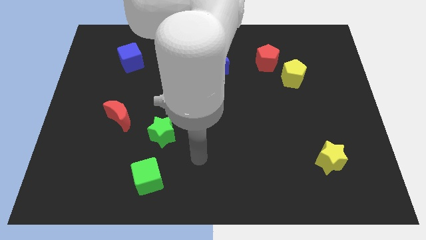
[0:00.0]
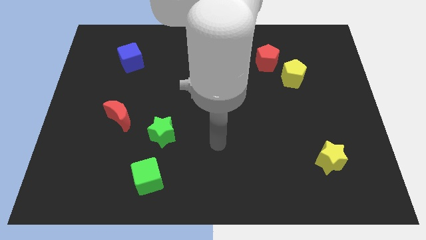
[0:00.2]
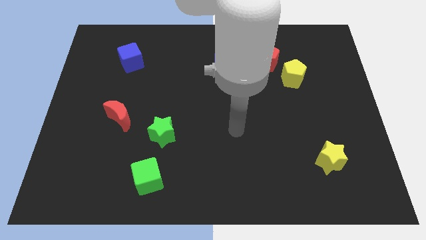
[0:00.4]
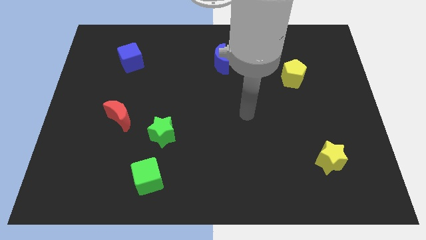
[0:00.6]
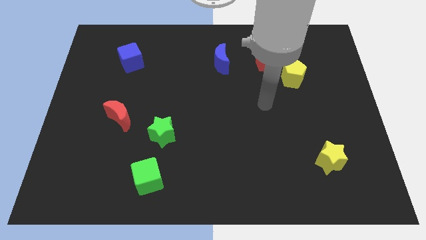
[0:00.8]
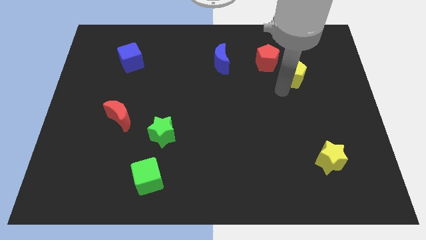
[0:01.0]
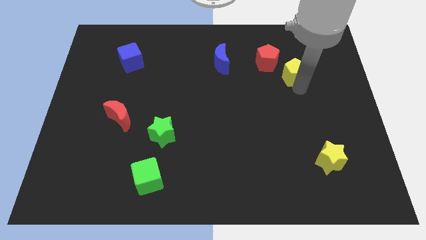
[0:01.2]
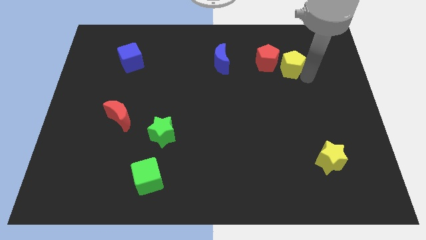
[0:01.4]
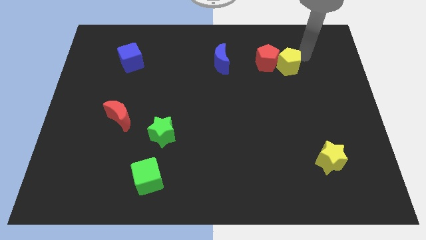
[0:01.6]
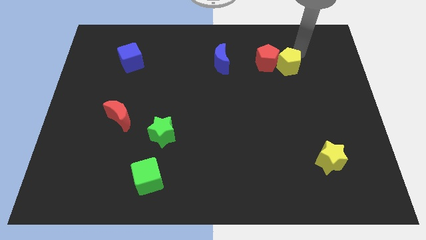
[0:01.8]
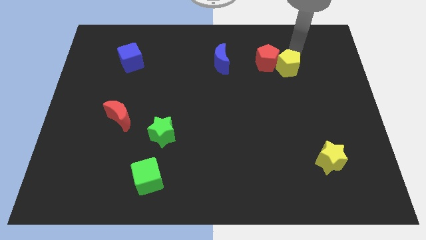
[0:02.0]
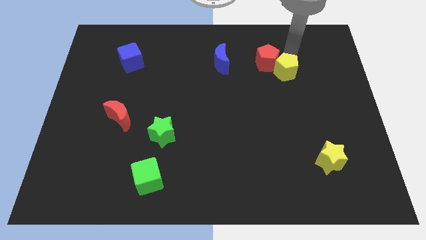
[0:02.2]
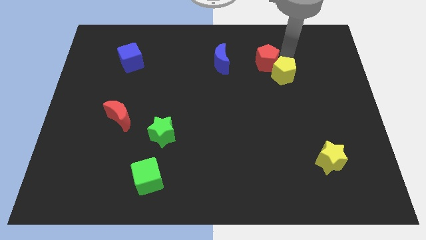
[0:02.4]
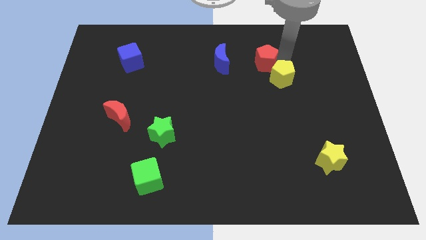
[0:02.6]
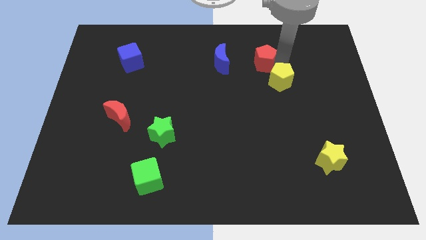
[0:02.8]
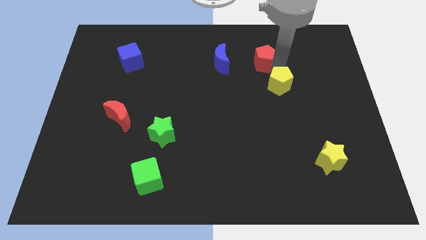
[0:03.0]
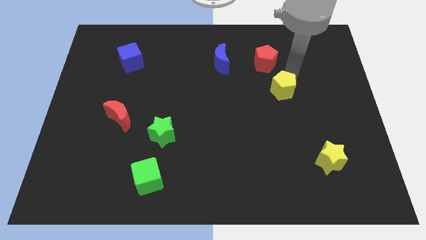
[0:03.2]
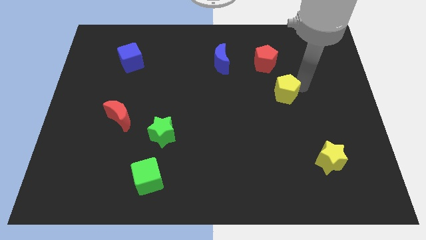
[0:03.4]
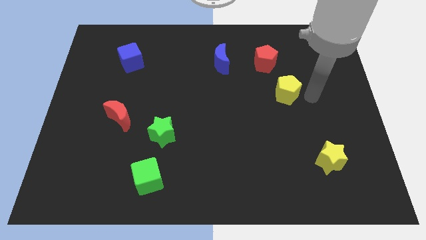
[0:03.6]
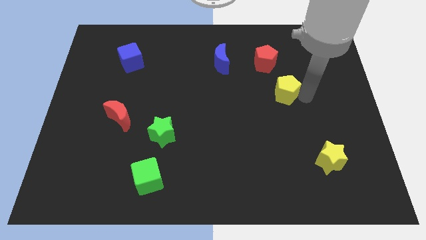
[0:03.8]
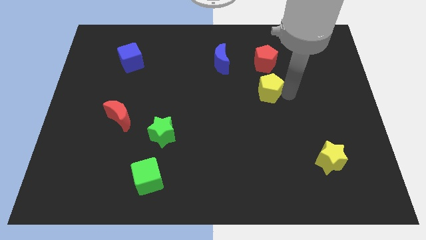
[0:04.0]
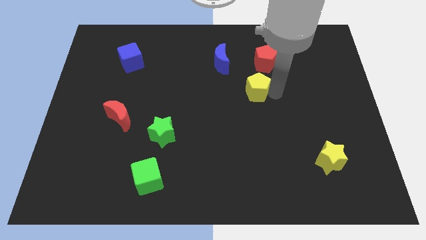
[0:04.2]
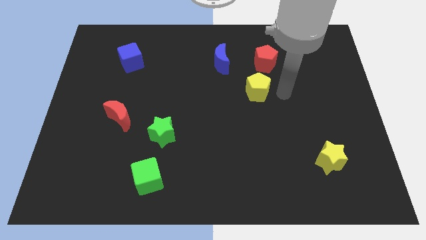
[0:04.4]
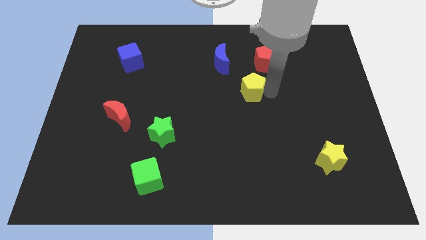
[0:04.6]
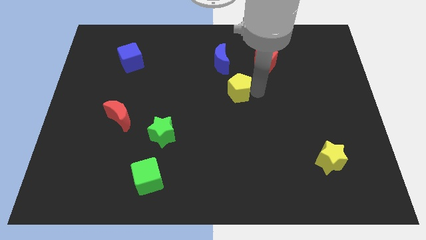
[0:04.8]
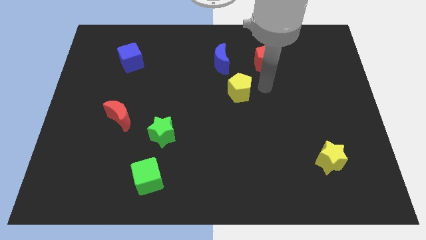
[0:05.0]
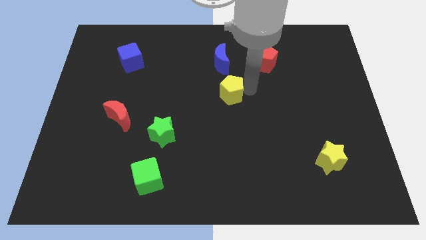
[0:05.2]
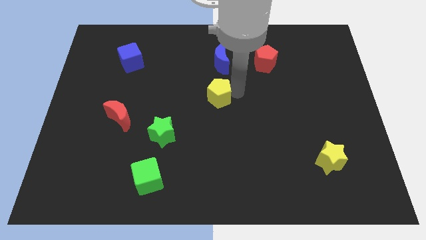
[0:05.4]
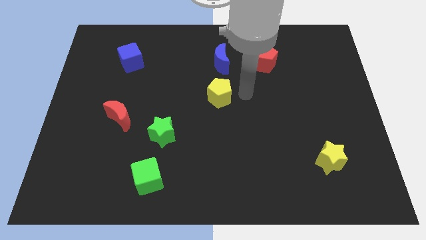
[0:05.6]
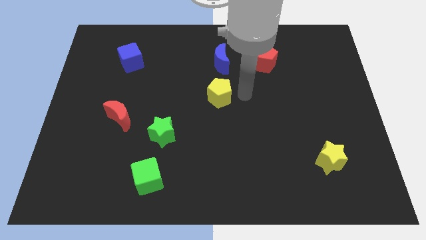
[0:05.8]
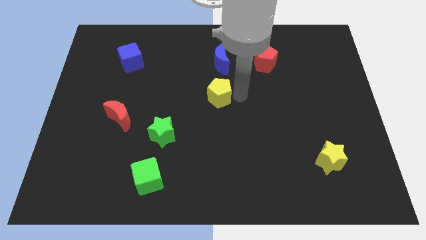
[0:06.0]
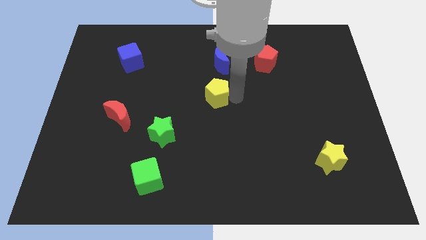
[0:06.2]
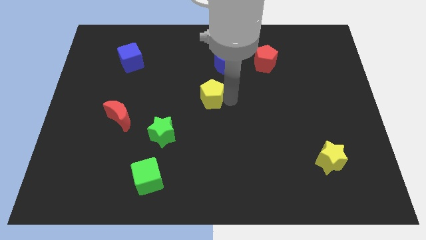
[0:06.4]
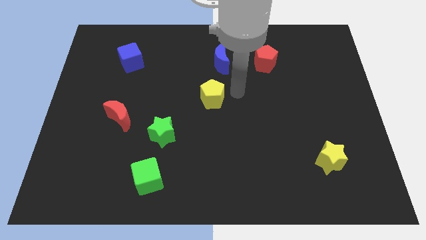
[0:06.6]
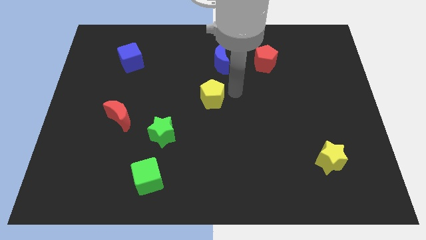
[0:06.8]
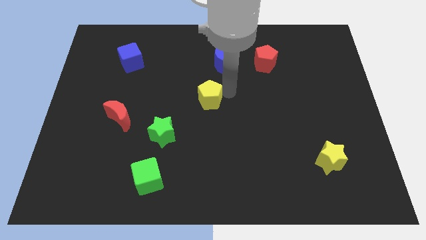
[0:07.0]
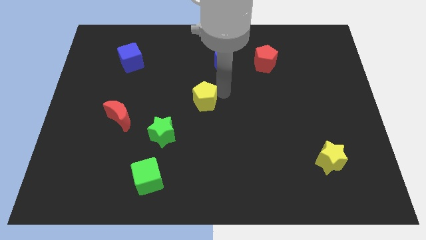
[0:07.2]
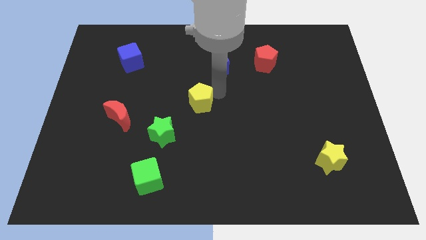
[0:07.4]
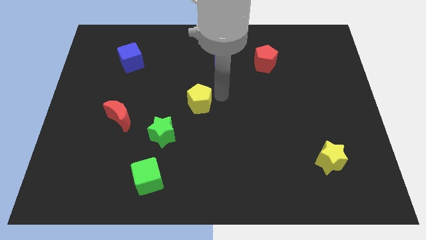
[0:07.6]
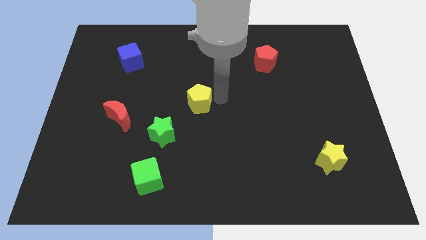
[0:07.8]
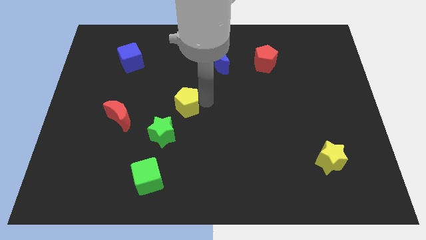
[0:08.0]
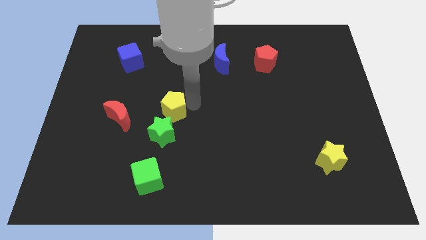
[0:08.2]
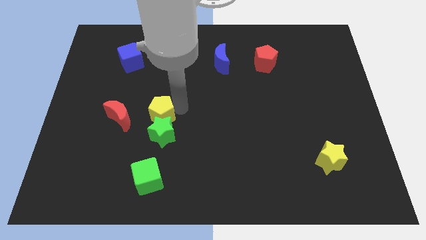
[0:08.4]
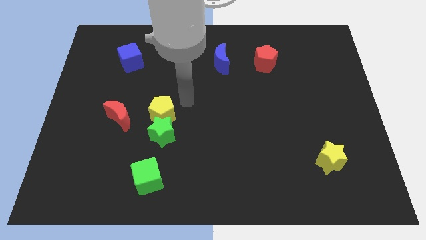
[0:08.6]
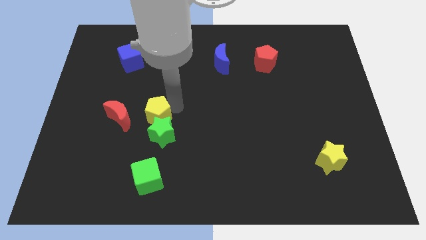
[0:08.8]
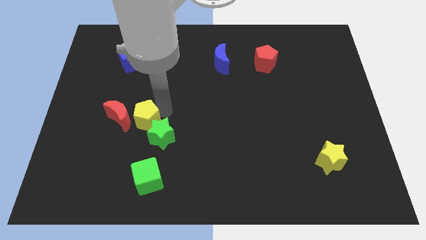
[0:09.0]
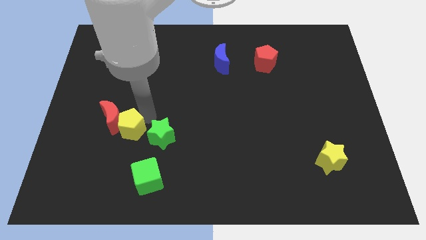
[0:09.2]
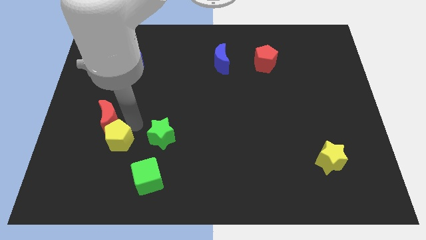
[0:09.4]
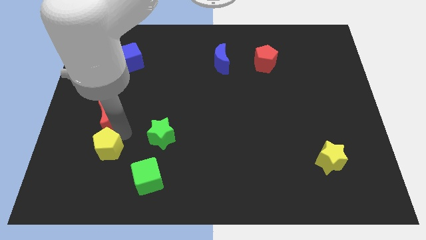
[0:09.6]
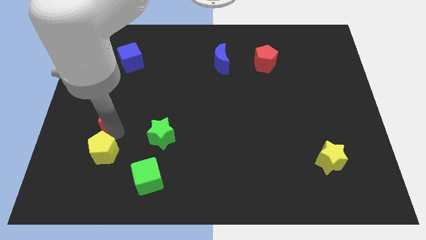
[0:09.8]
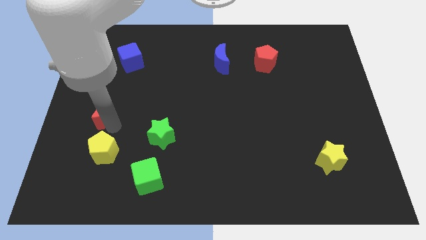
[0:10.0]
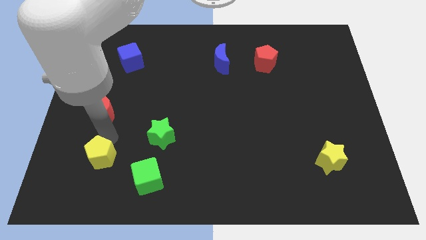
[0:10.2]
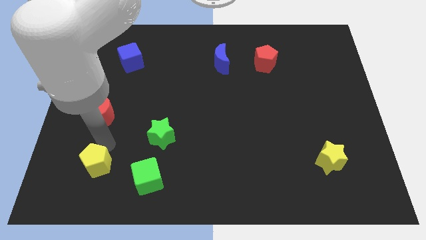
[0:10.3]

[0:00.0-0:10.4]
move the yellow pentagon to the left of the green cube

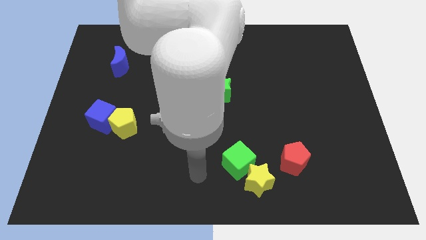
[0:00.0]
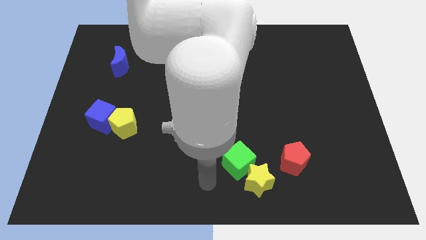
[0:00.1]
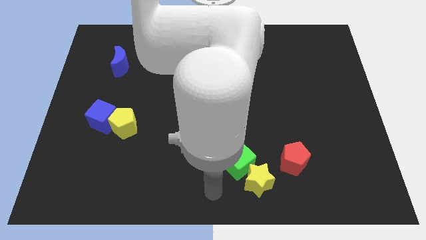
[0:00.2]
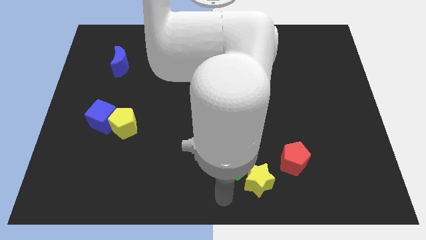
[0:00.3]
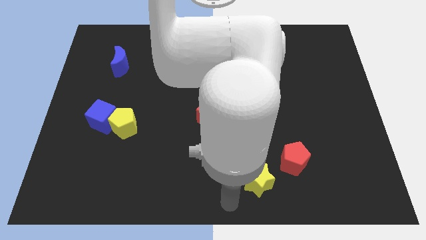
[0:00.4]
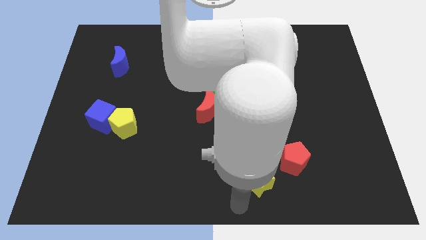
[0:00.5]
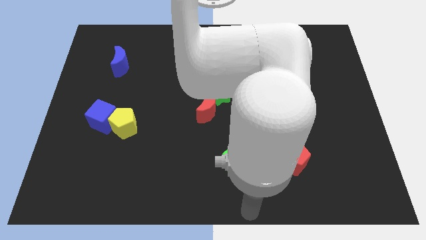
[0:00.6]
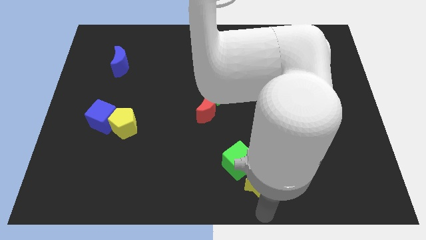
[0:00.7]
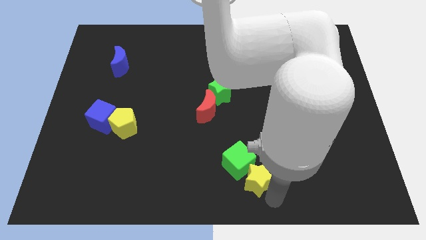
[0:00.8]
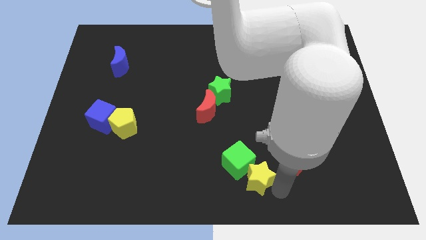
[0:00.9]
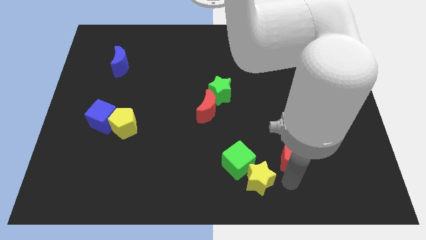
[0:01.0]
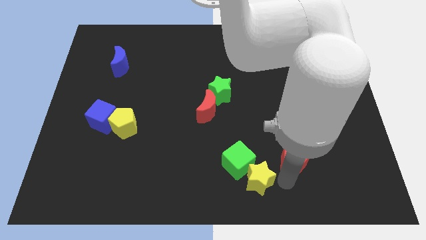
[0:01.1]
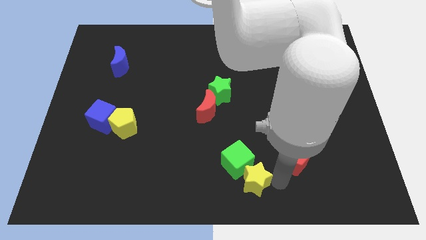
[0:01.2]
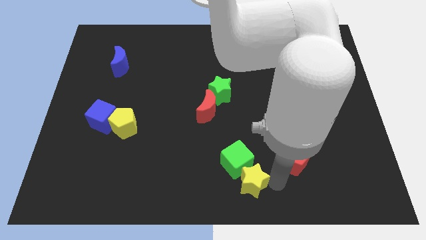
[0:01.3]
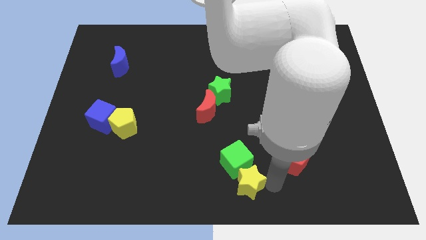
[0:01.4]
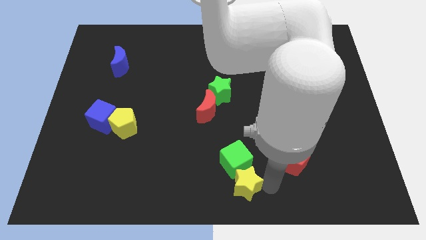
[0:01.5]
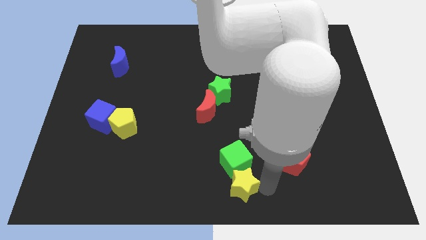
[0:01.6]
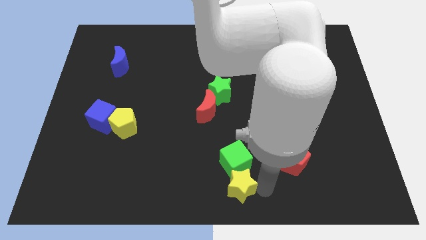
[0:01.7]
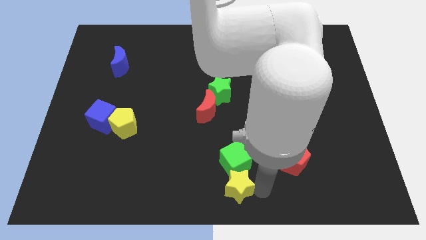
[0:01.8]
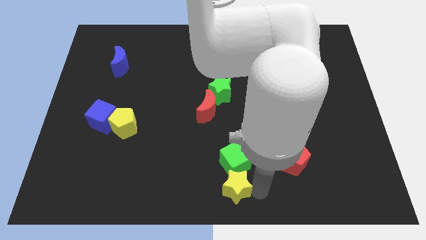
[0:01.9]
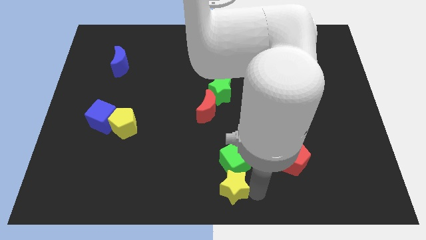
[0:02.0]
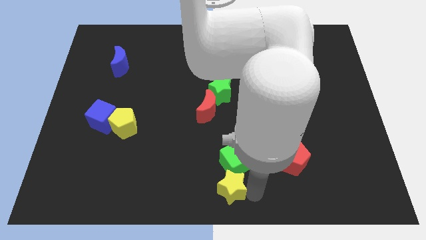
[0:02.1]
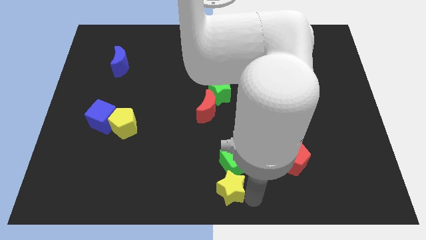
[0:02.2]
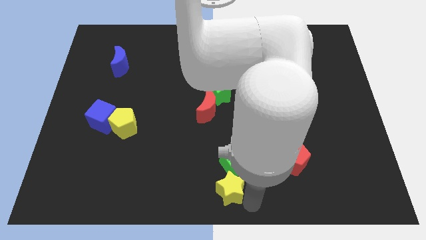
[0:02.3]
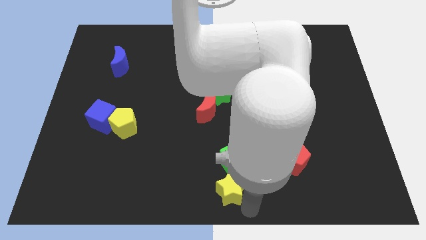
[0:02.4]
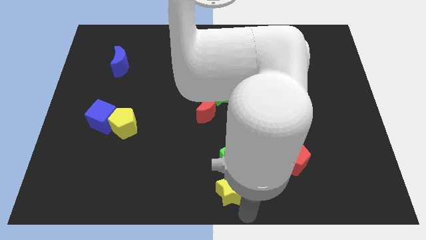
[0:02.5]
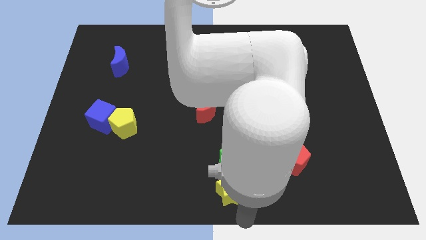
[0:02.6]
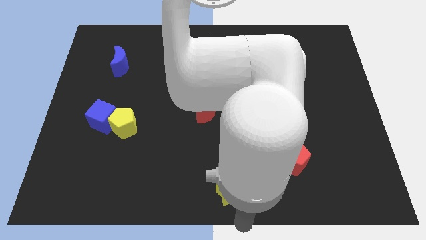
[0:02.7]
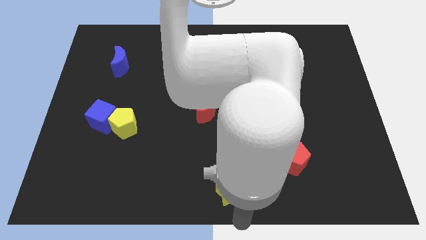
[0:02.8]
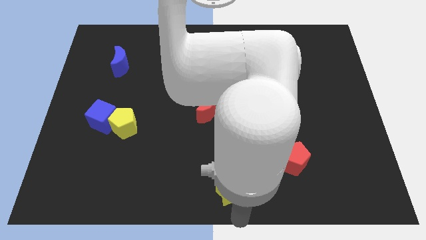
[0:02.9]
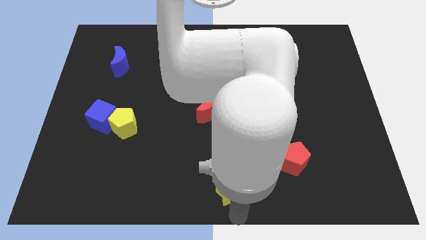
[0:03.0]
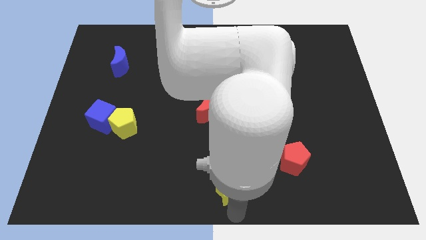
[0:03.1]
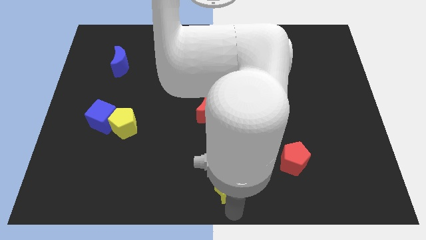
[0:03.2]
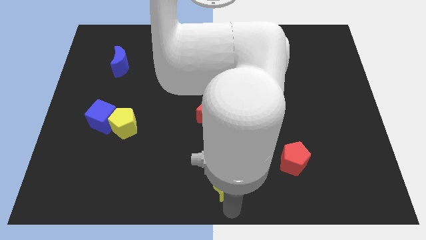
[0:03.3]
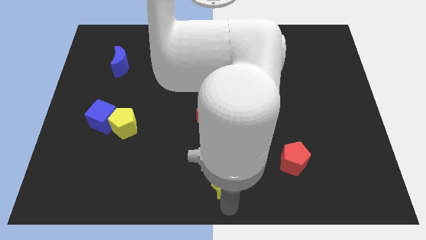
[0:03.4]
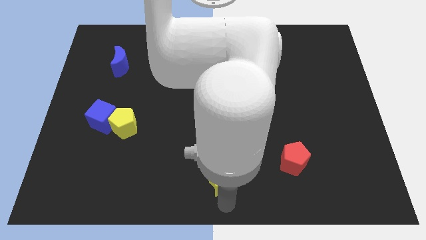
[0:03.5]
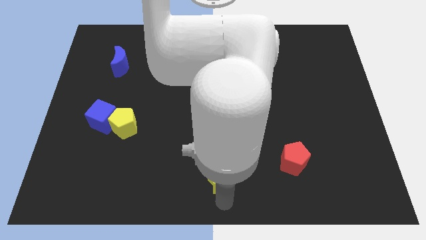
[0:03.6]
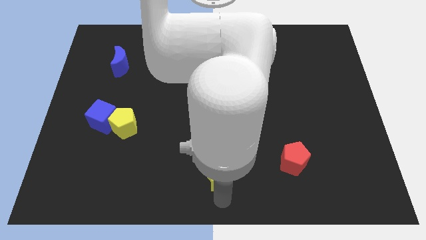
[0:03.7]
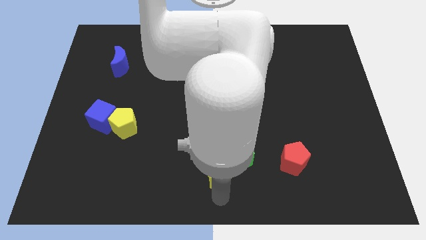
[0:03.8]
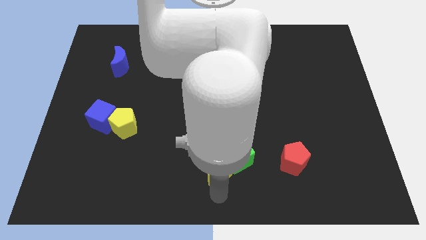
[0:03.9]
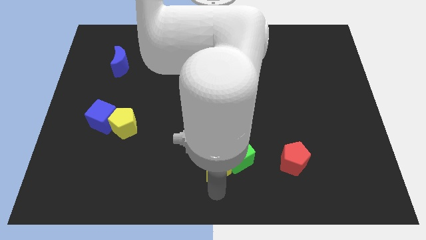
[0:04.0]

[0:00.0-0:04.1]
put the yellow star below the red moon
